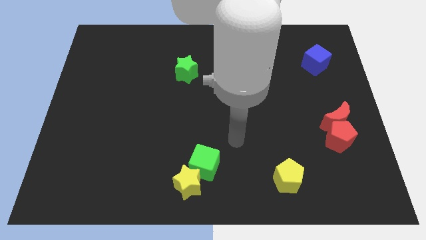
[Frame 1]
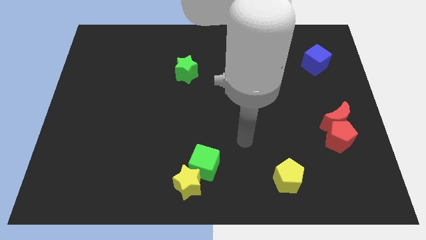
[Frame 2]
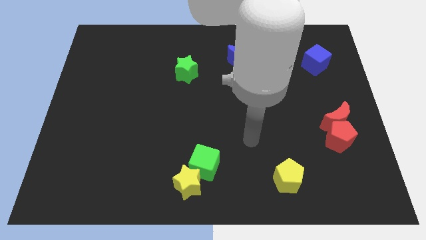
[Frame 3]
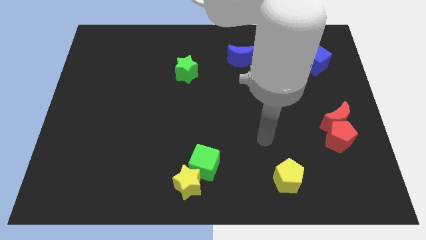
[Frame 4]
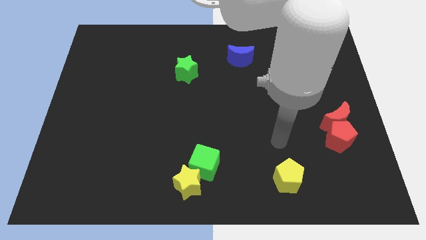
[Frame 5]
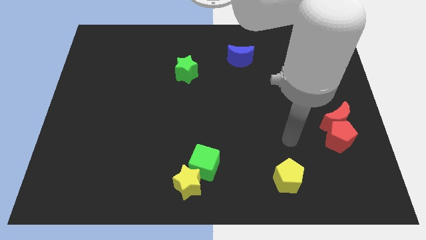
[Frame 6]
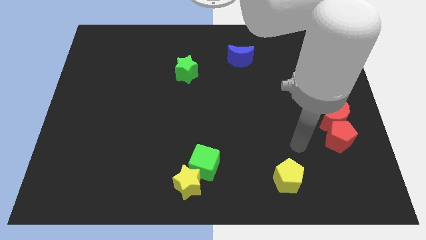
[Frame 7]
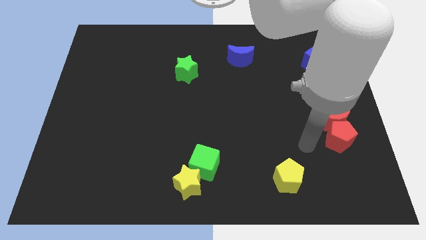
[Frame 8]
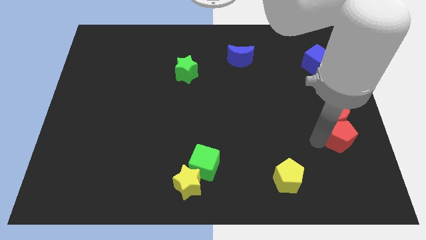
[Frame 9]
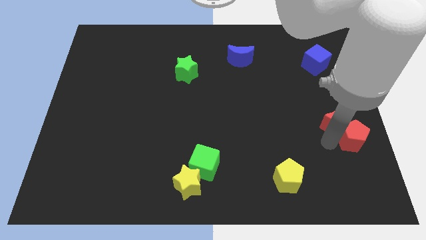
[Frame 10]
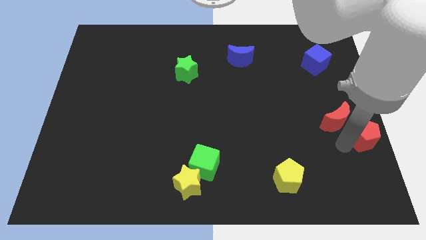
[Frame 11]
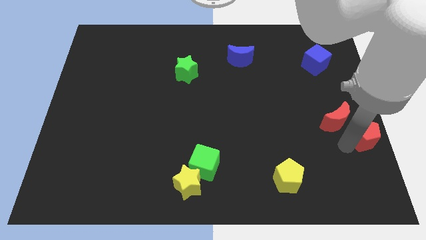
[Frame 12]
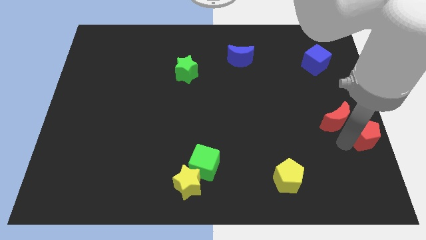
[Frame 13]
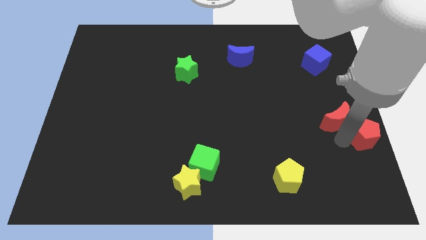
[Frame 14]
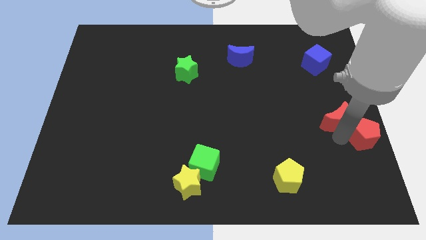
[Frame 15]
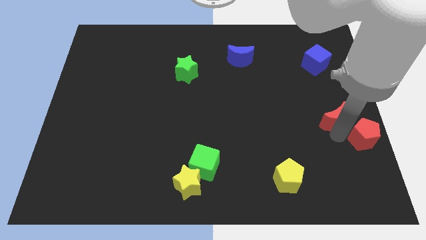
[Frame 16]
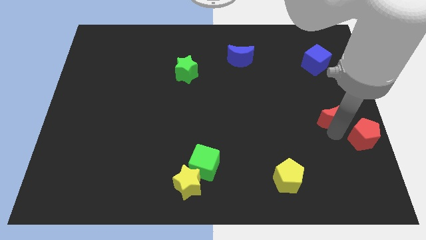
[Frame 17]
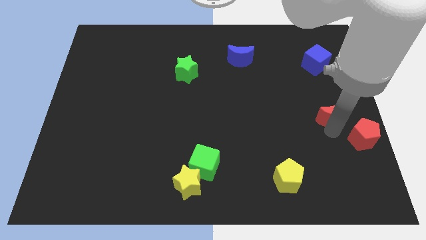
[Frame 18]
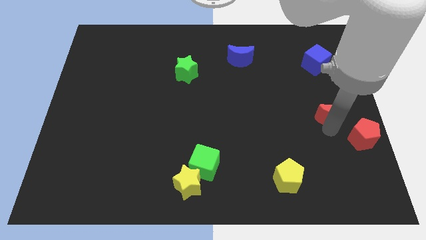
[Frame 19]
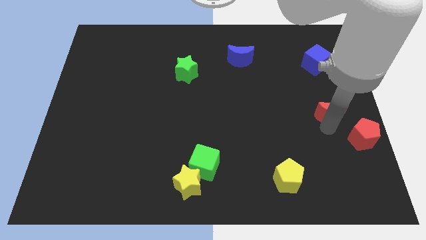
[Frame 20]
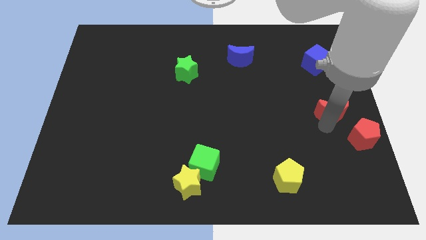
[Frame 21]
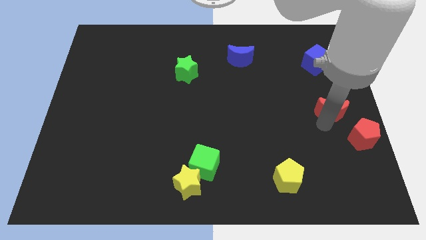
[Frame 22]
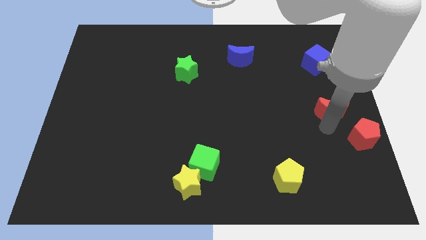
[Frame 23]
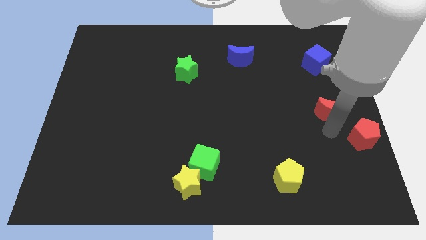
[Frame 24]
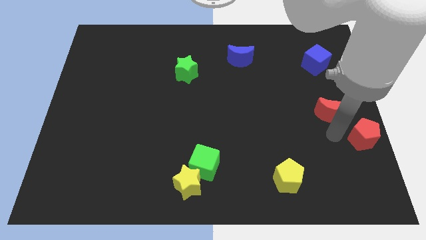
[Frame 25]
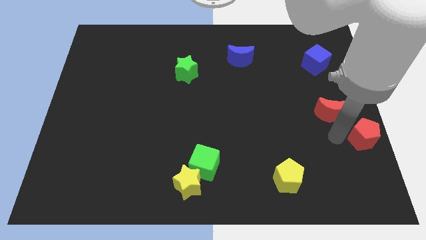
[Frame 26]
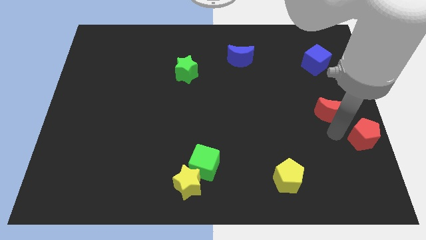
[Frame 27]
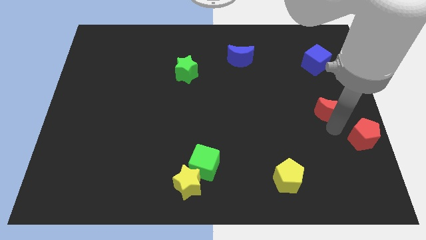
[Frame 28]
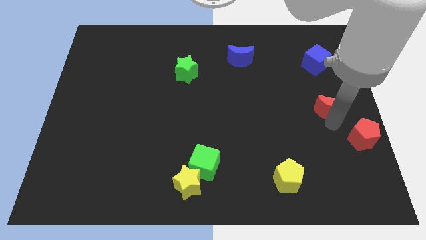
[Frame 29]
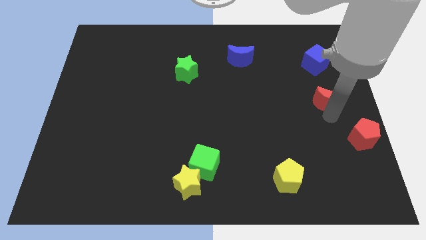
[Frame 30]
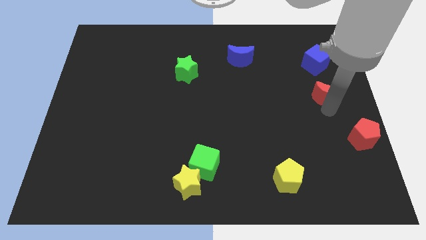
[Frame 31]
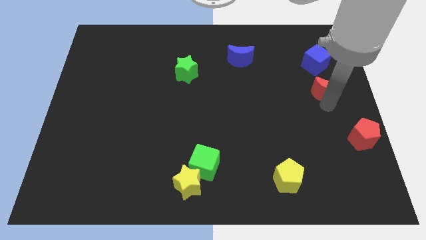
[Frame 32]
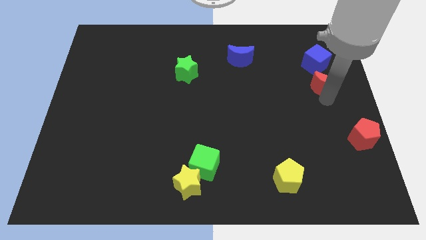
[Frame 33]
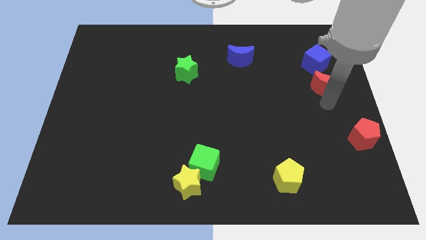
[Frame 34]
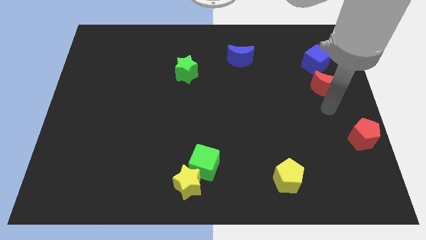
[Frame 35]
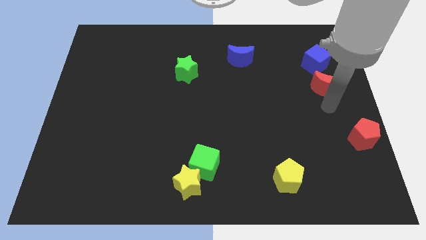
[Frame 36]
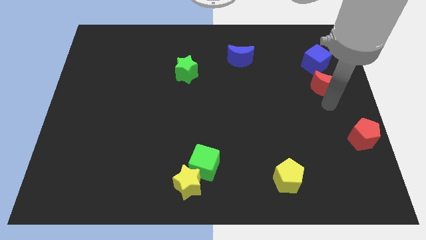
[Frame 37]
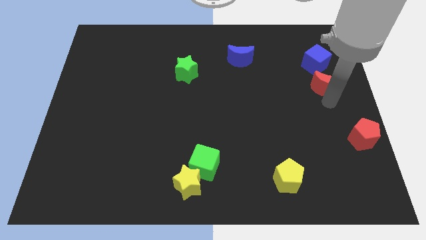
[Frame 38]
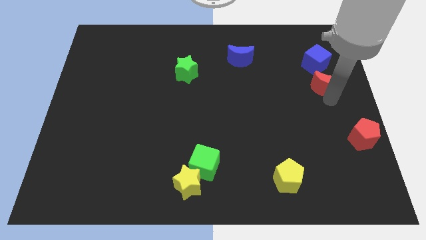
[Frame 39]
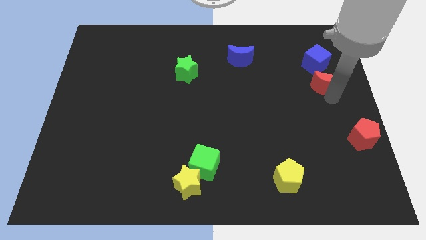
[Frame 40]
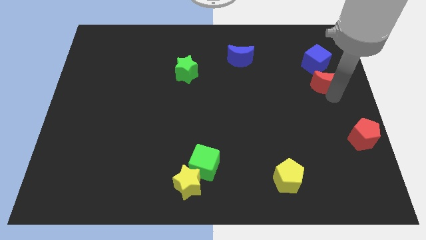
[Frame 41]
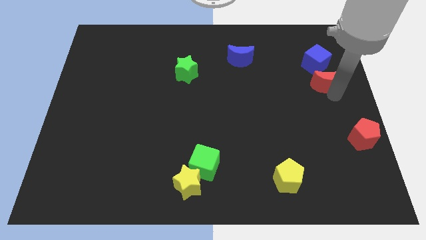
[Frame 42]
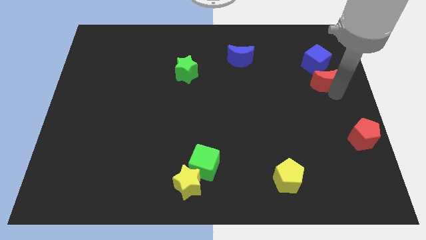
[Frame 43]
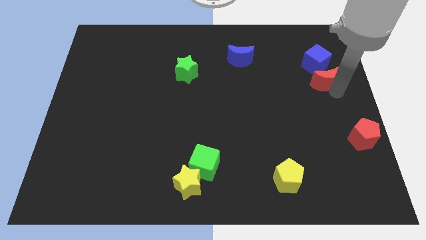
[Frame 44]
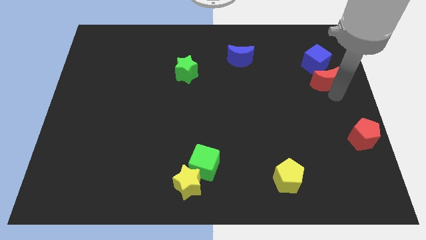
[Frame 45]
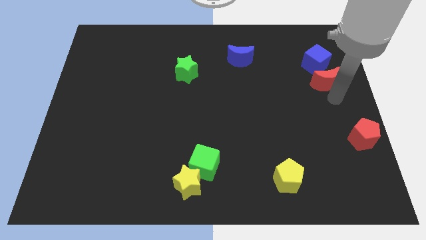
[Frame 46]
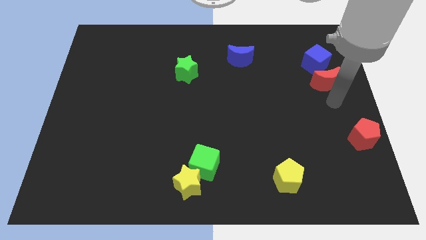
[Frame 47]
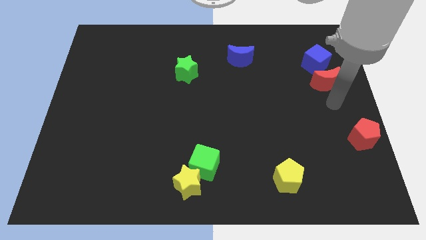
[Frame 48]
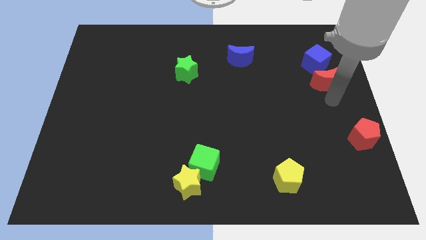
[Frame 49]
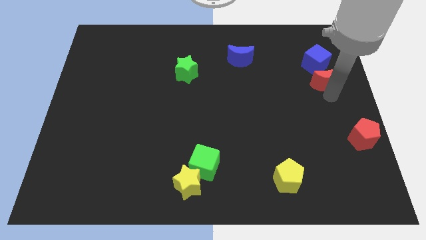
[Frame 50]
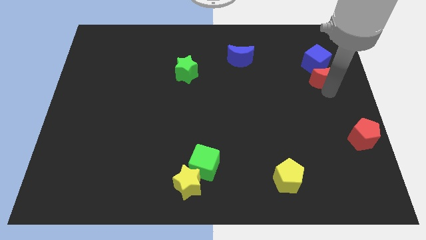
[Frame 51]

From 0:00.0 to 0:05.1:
move the red moon close to the blue cube

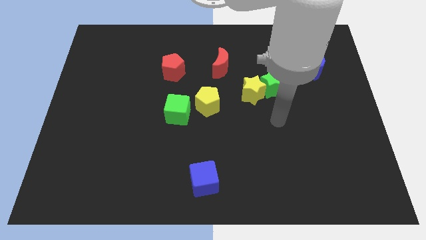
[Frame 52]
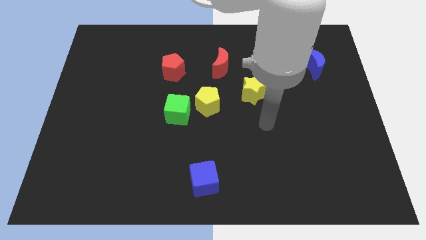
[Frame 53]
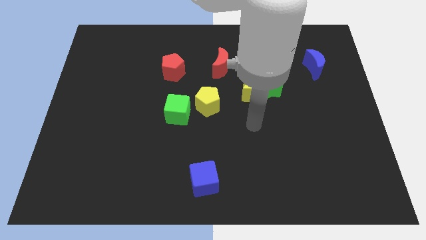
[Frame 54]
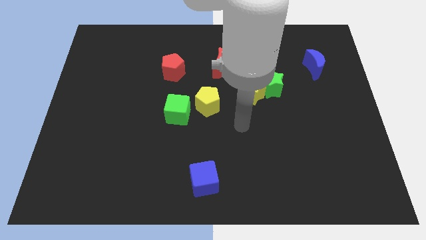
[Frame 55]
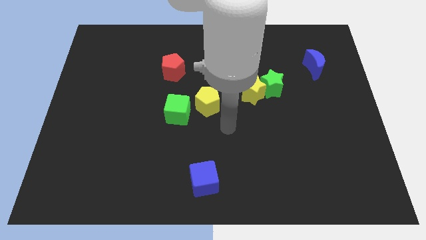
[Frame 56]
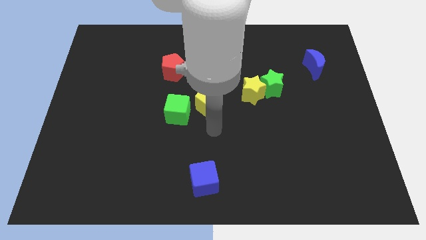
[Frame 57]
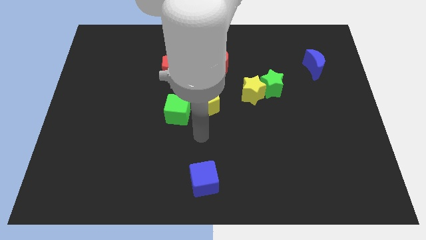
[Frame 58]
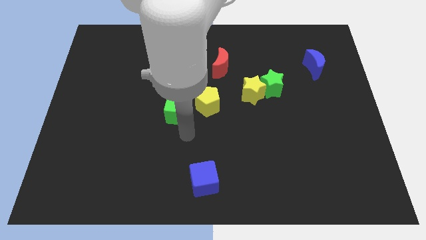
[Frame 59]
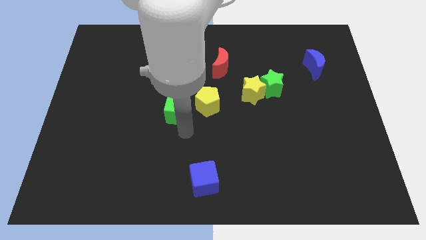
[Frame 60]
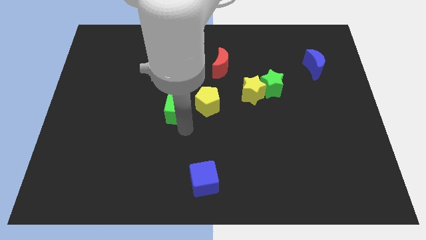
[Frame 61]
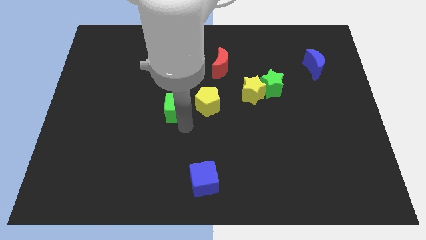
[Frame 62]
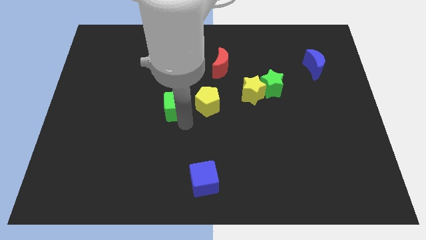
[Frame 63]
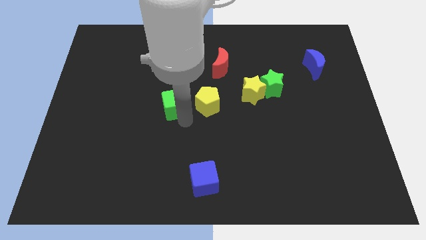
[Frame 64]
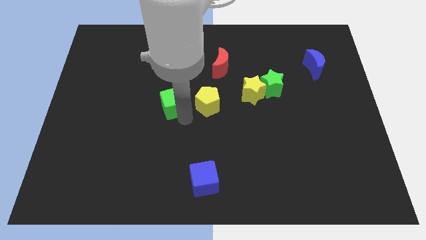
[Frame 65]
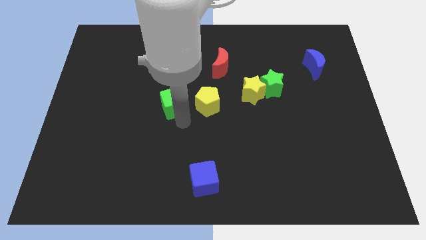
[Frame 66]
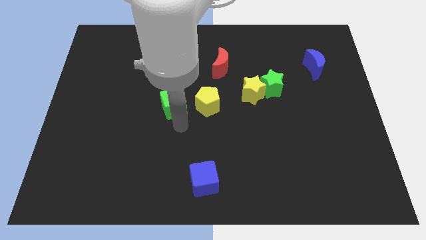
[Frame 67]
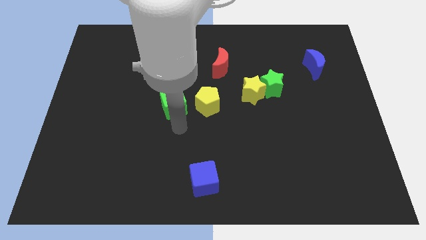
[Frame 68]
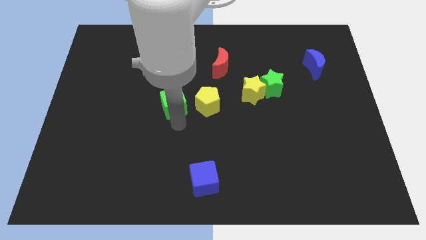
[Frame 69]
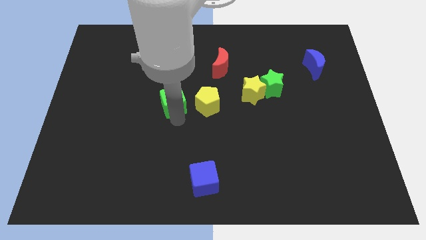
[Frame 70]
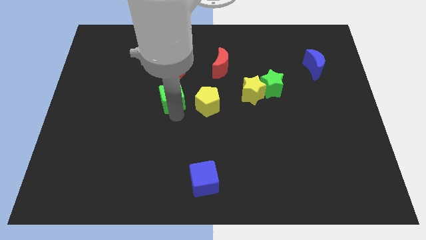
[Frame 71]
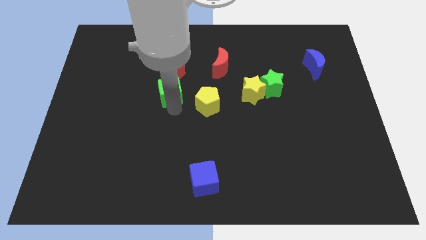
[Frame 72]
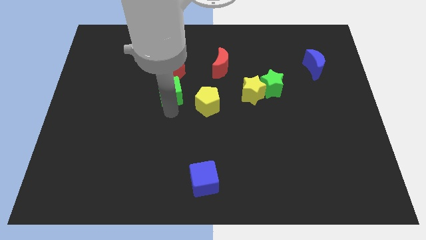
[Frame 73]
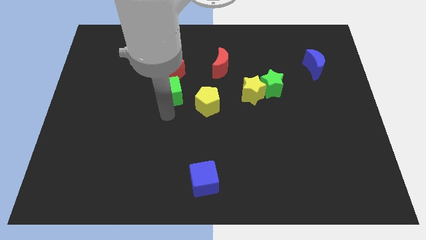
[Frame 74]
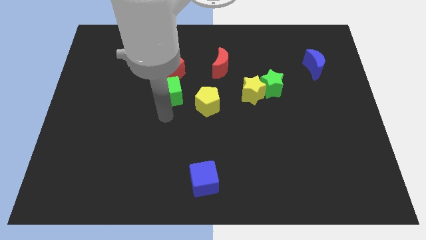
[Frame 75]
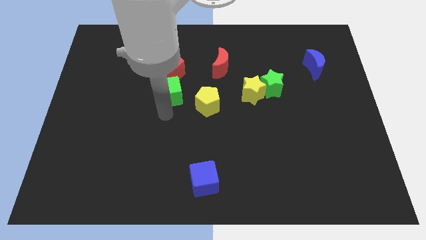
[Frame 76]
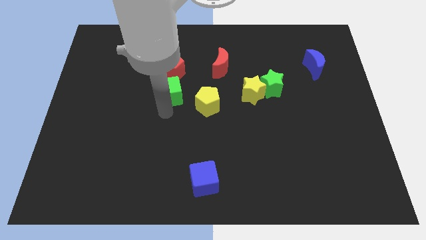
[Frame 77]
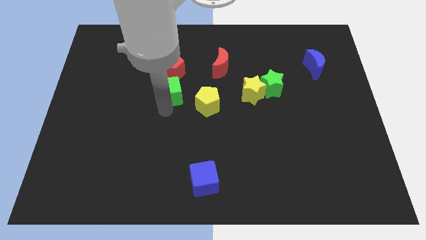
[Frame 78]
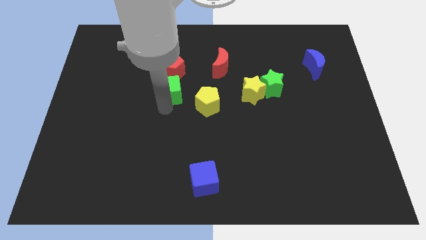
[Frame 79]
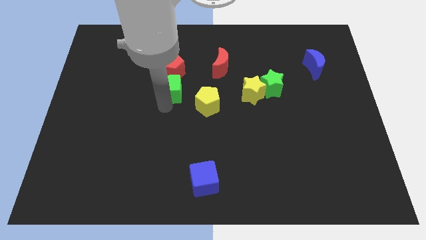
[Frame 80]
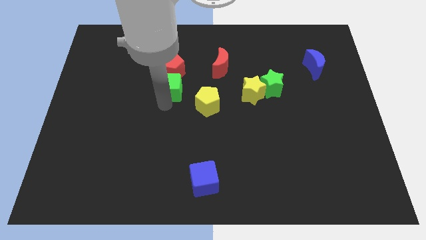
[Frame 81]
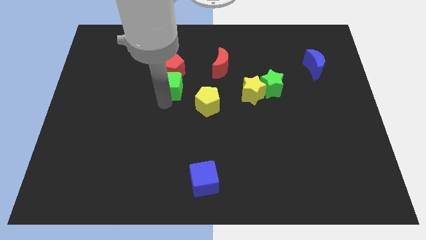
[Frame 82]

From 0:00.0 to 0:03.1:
push the green cube close to the red pentagon
